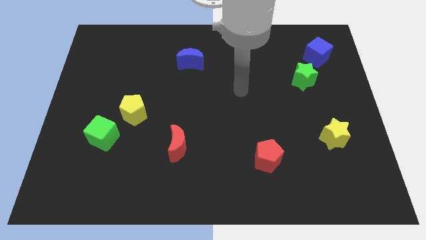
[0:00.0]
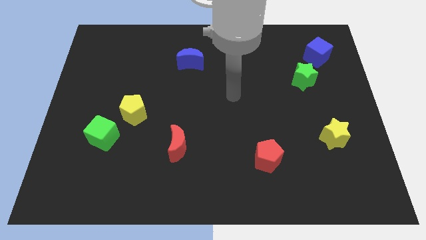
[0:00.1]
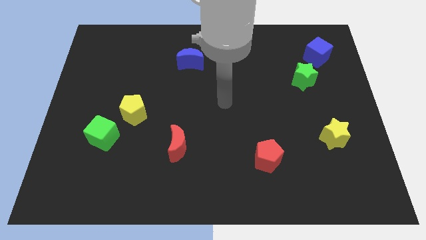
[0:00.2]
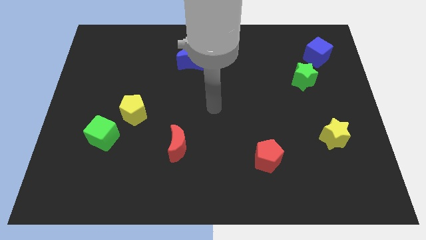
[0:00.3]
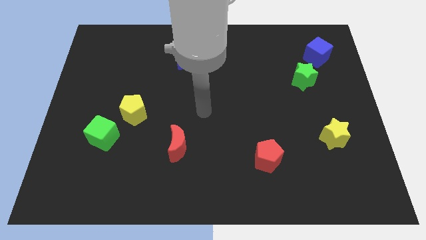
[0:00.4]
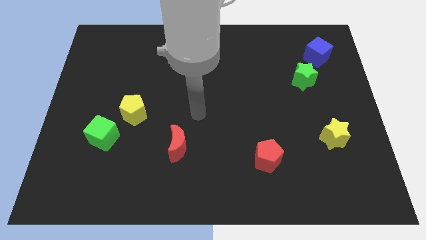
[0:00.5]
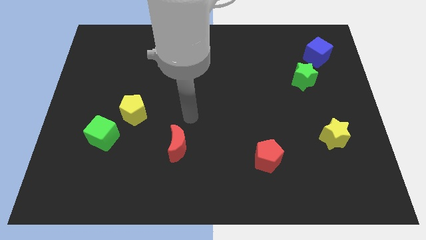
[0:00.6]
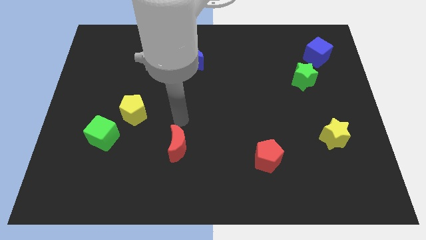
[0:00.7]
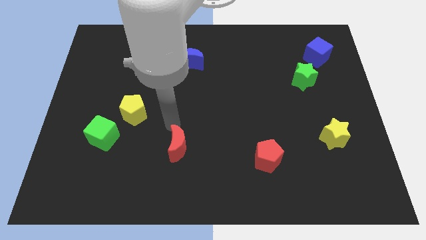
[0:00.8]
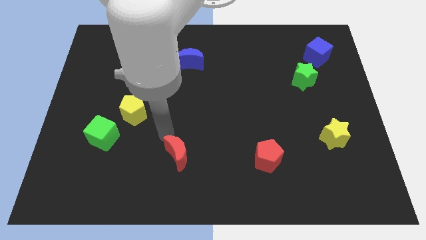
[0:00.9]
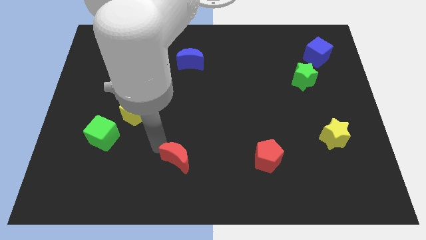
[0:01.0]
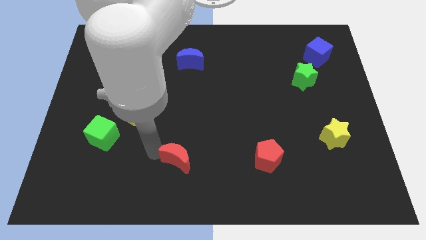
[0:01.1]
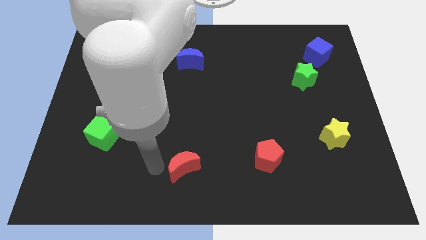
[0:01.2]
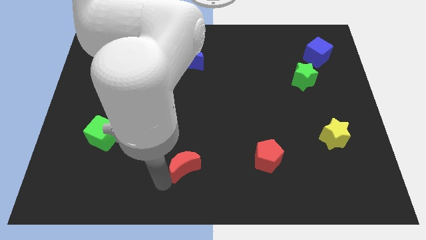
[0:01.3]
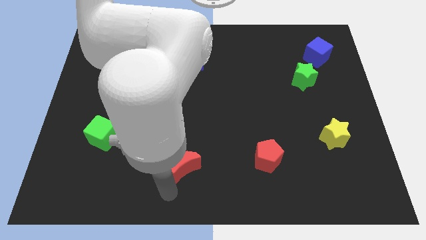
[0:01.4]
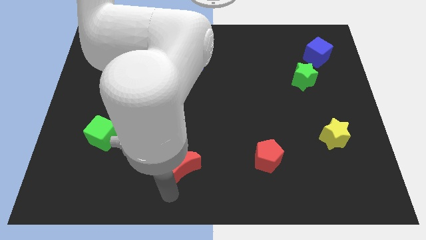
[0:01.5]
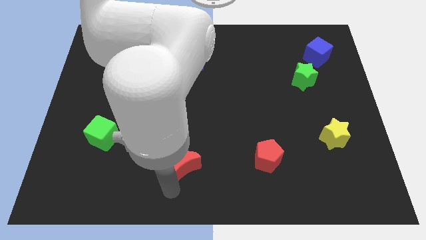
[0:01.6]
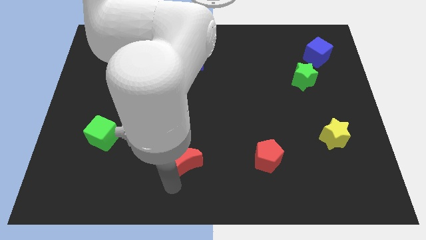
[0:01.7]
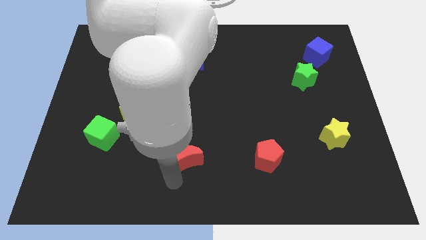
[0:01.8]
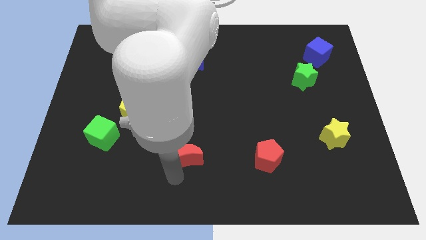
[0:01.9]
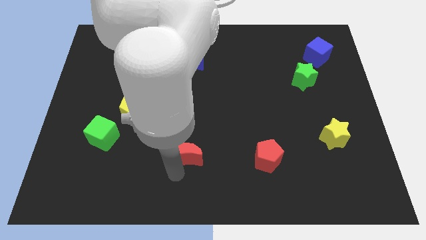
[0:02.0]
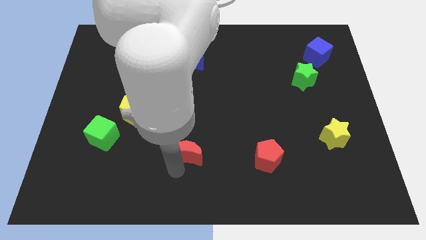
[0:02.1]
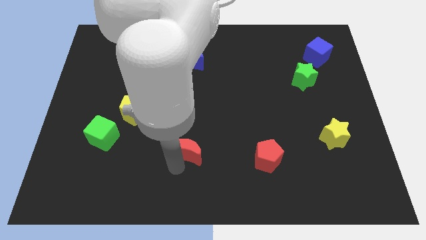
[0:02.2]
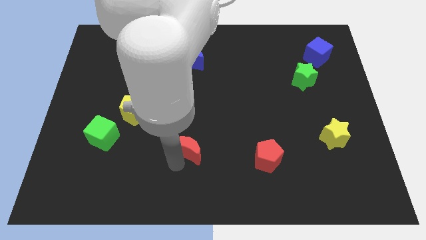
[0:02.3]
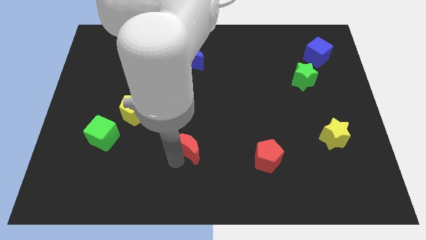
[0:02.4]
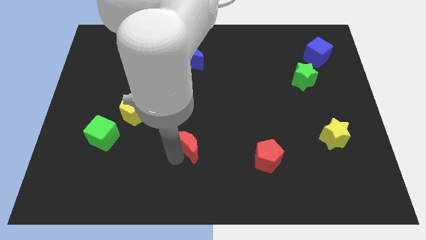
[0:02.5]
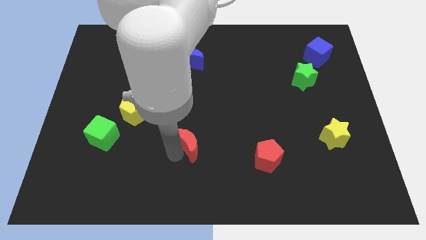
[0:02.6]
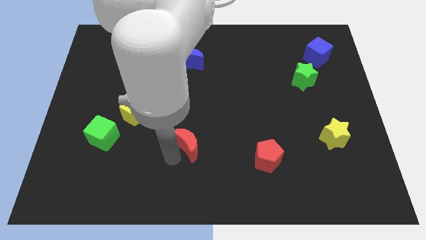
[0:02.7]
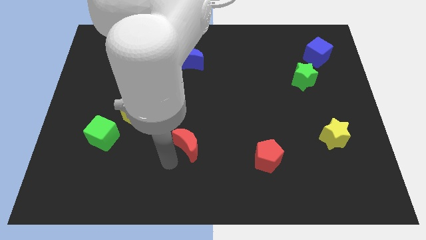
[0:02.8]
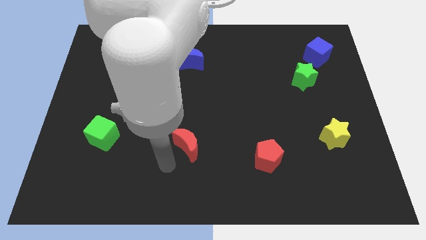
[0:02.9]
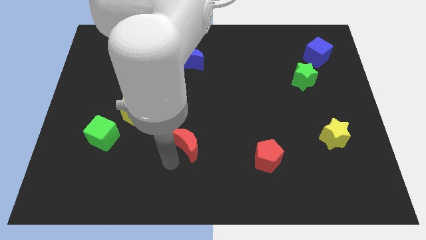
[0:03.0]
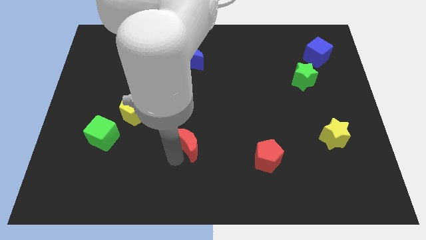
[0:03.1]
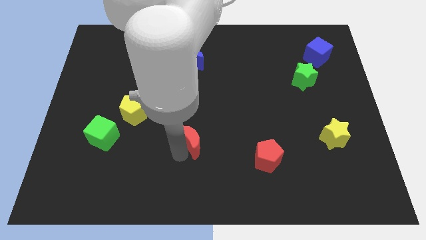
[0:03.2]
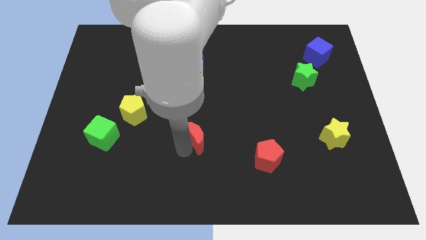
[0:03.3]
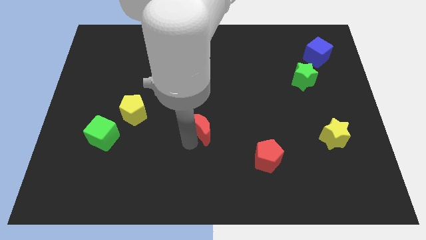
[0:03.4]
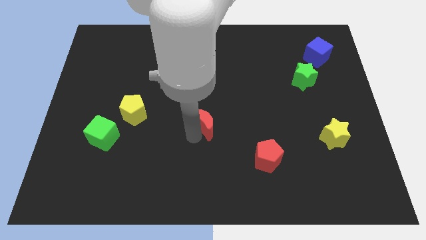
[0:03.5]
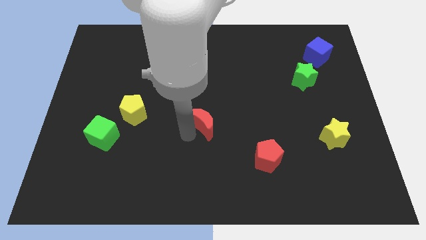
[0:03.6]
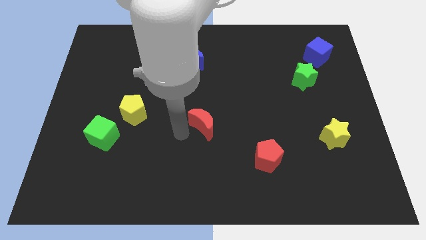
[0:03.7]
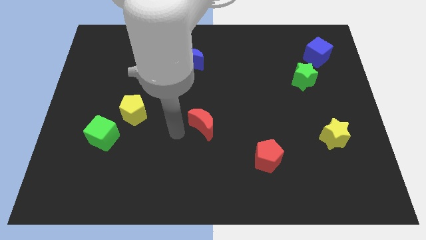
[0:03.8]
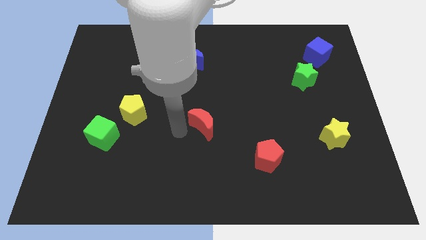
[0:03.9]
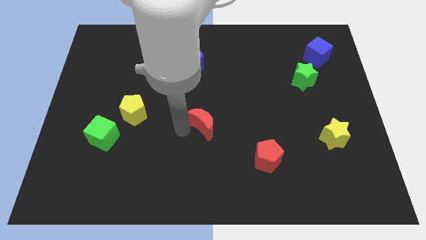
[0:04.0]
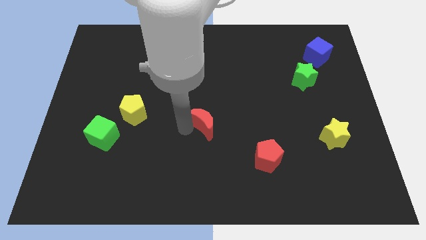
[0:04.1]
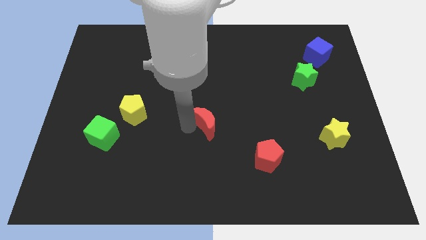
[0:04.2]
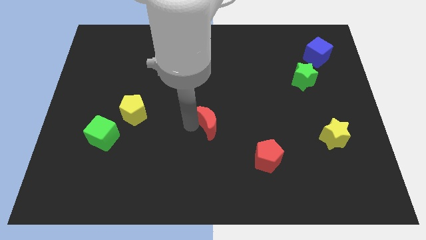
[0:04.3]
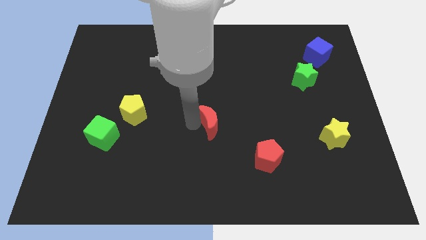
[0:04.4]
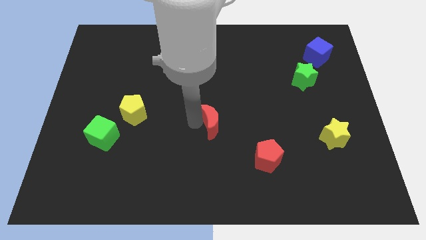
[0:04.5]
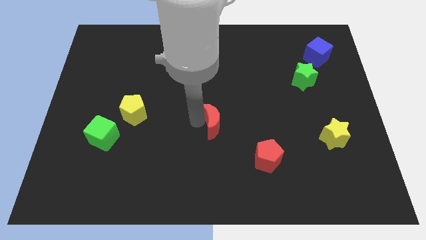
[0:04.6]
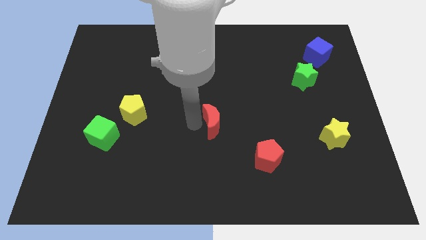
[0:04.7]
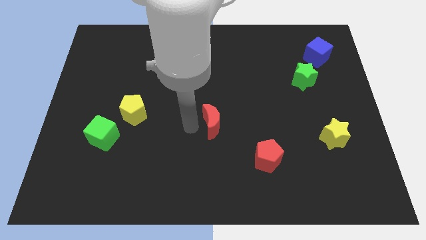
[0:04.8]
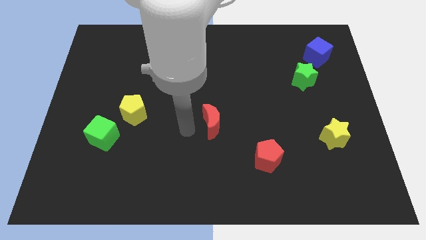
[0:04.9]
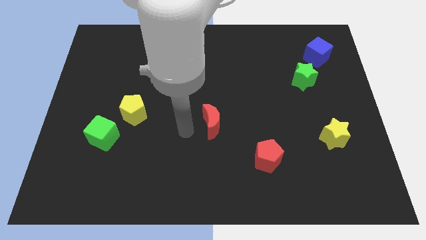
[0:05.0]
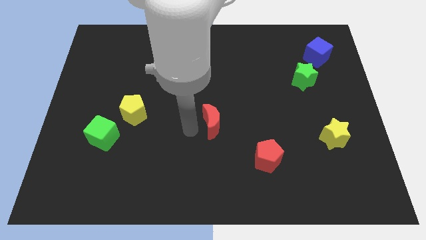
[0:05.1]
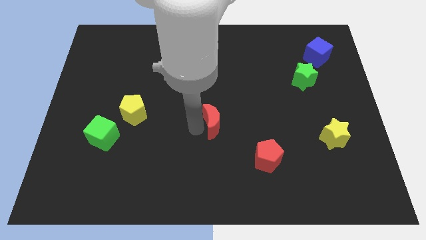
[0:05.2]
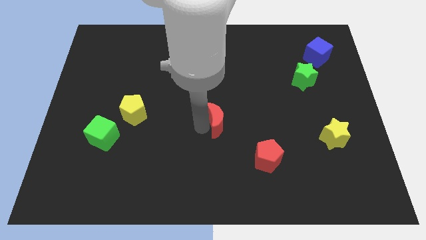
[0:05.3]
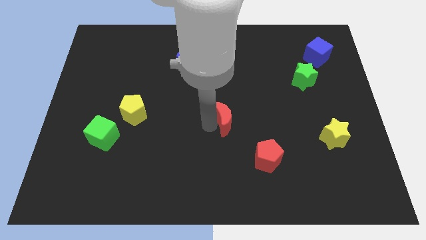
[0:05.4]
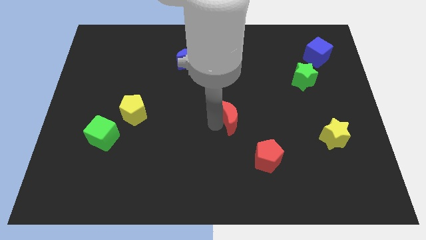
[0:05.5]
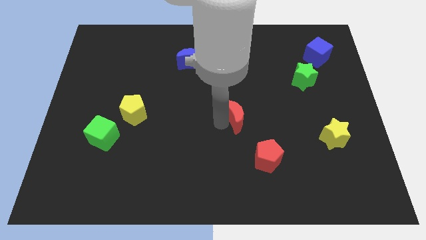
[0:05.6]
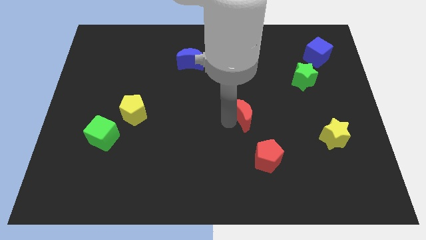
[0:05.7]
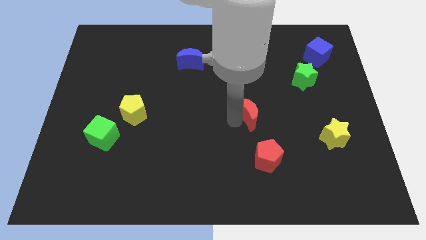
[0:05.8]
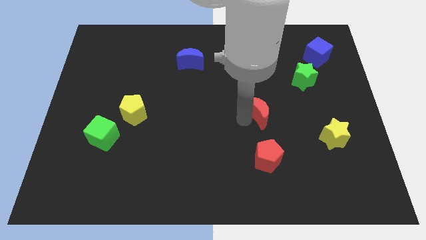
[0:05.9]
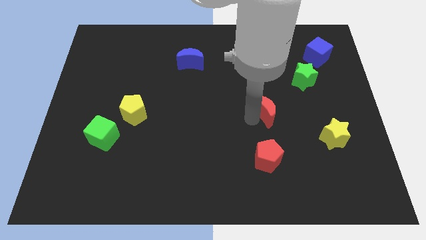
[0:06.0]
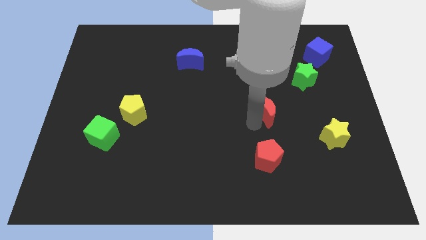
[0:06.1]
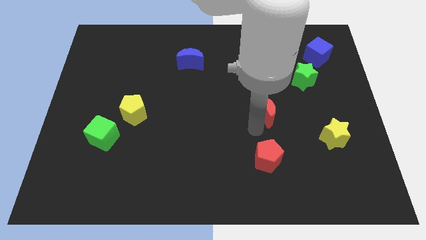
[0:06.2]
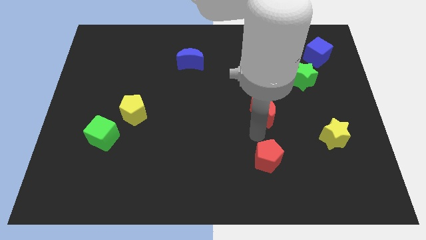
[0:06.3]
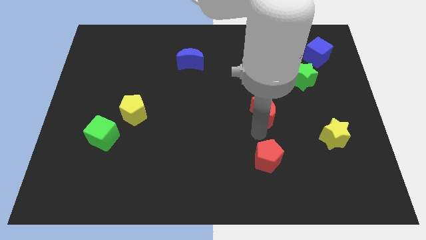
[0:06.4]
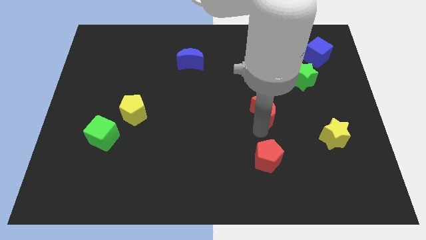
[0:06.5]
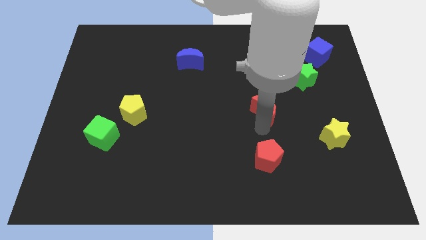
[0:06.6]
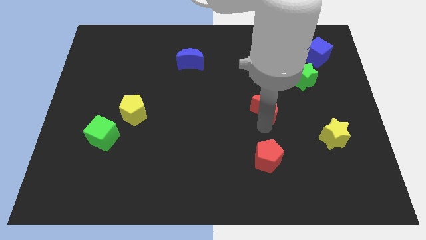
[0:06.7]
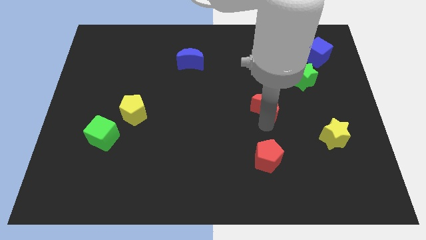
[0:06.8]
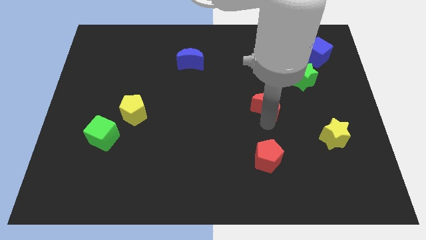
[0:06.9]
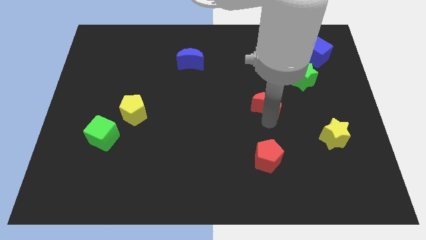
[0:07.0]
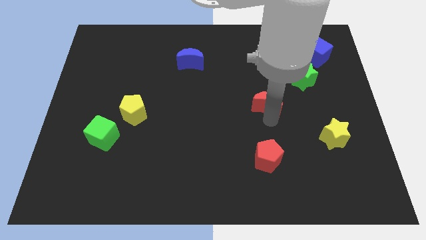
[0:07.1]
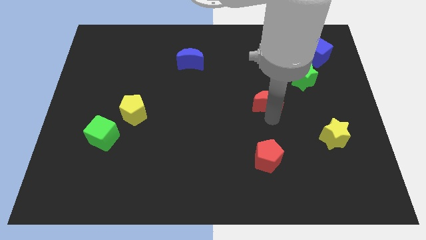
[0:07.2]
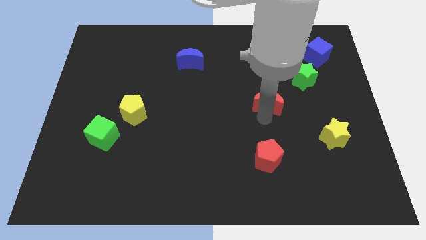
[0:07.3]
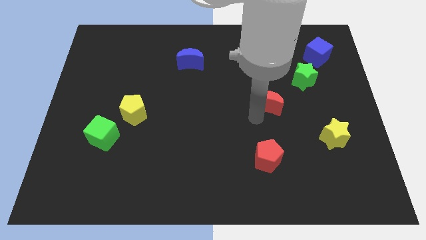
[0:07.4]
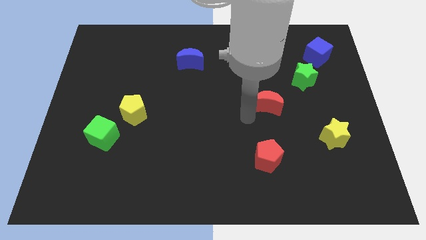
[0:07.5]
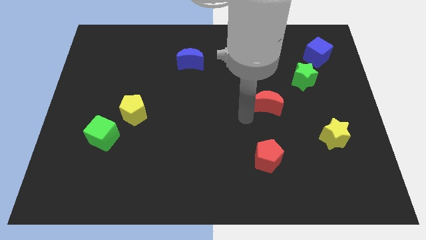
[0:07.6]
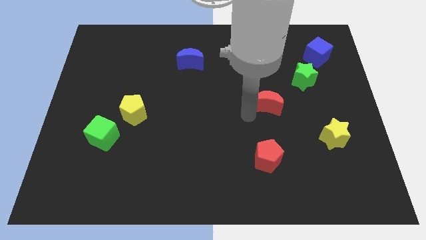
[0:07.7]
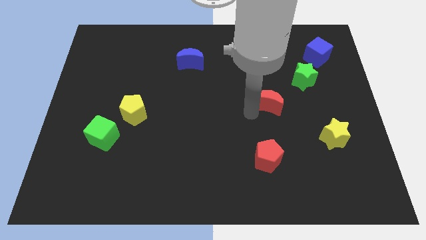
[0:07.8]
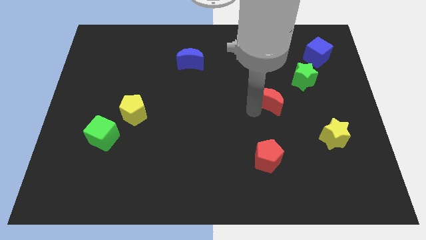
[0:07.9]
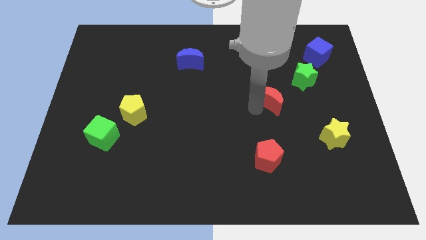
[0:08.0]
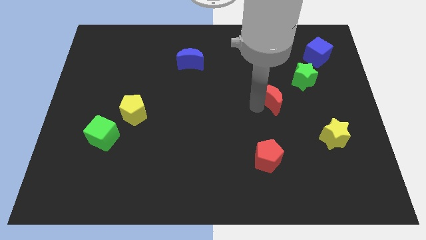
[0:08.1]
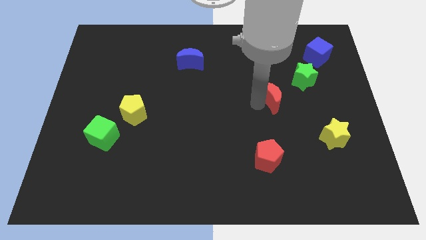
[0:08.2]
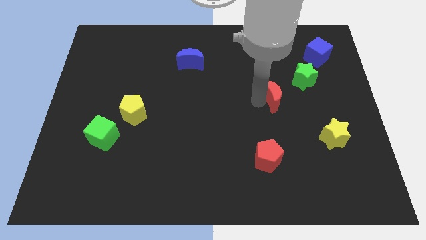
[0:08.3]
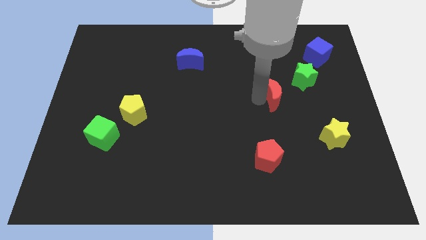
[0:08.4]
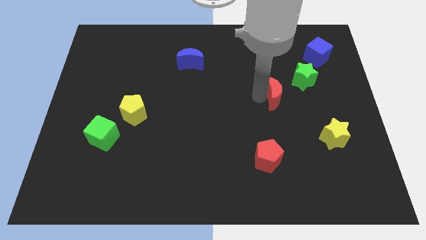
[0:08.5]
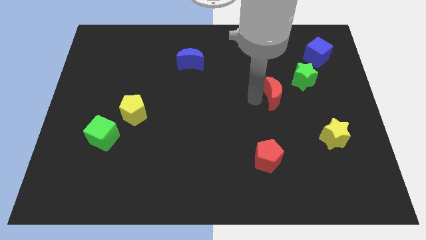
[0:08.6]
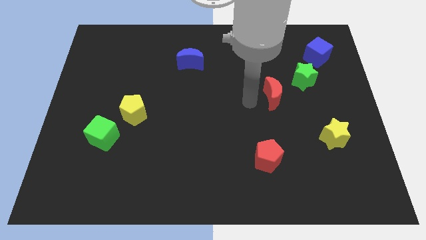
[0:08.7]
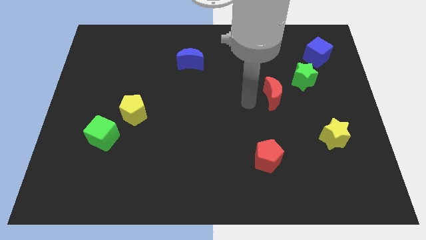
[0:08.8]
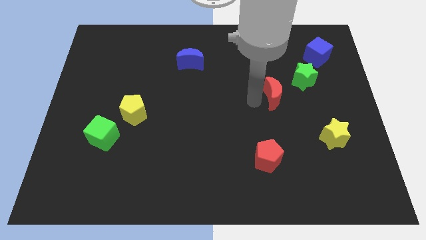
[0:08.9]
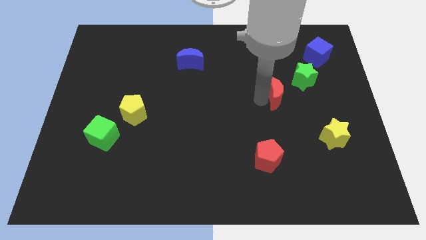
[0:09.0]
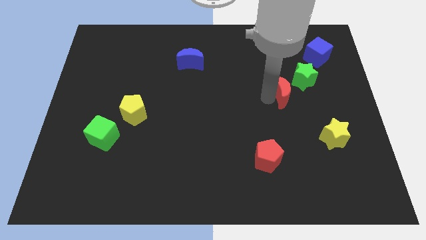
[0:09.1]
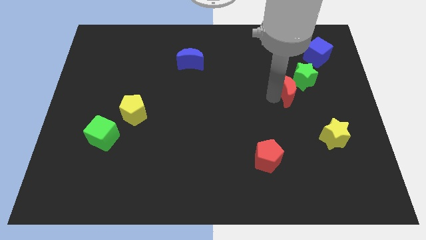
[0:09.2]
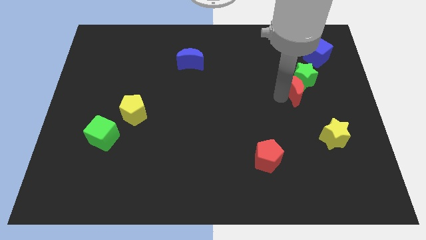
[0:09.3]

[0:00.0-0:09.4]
move the red moon close to the green star
